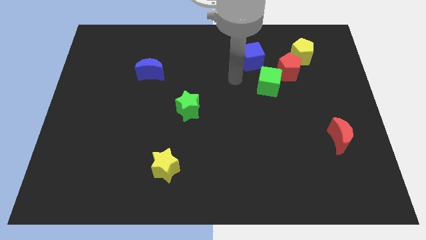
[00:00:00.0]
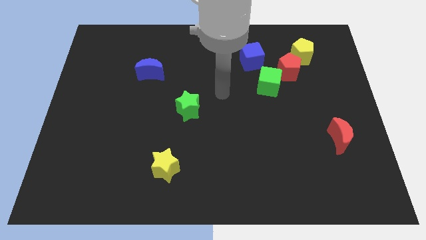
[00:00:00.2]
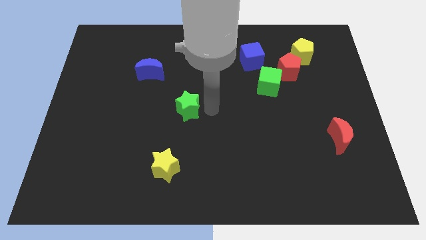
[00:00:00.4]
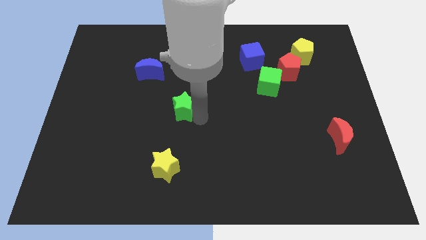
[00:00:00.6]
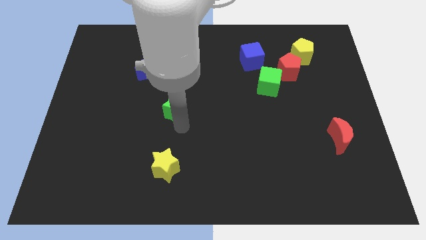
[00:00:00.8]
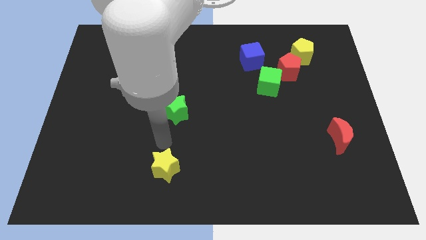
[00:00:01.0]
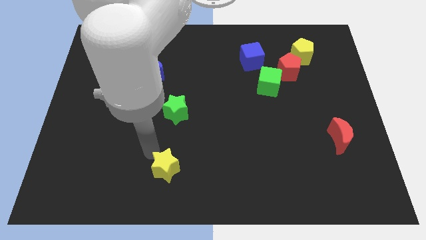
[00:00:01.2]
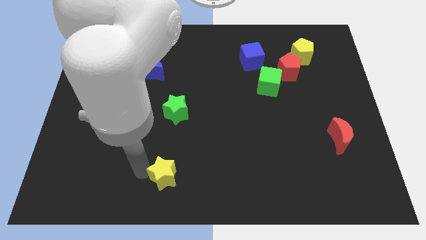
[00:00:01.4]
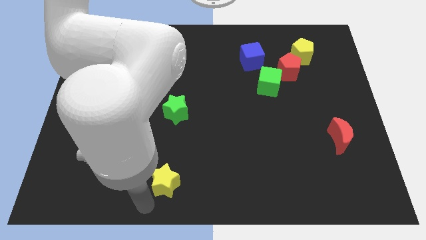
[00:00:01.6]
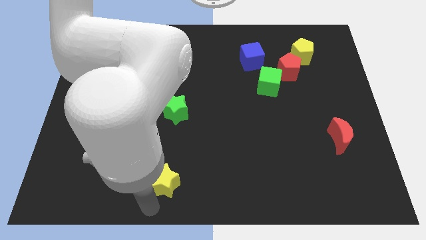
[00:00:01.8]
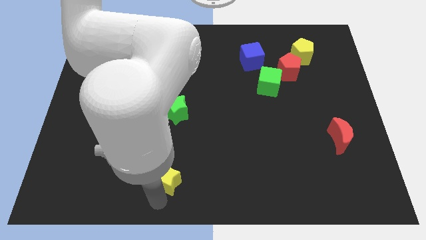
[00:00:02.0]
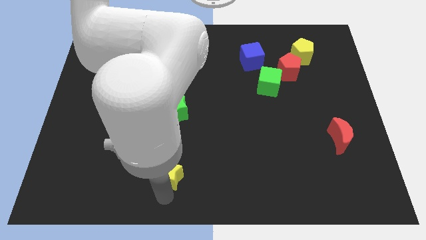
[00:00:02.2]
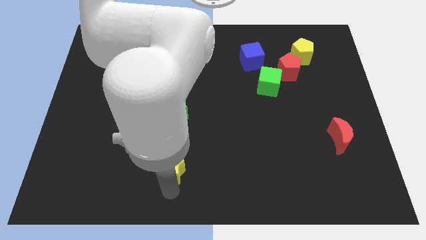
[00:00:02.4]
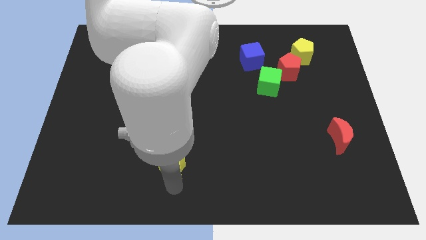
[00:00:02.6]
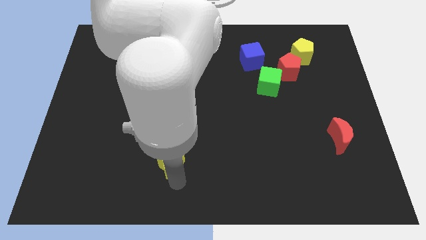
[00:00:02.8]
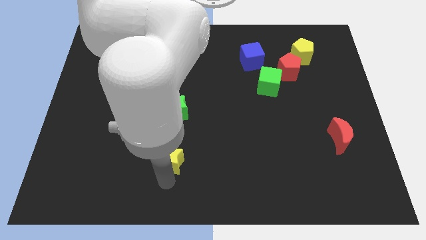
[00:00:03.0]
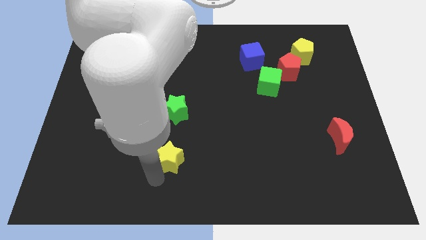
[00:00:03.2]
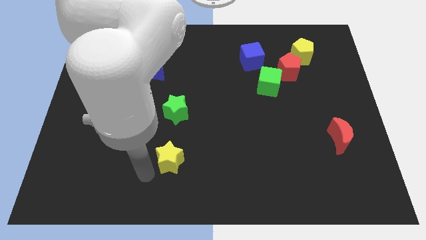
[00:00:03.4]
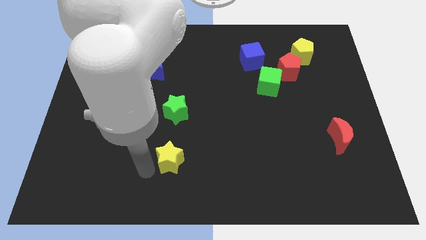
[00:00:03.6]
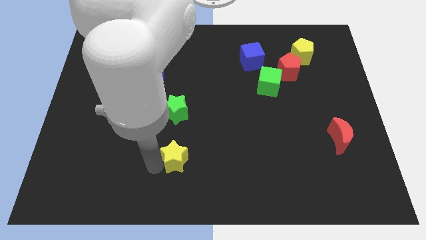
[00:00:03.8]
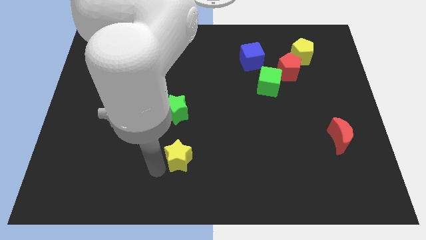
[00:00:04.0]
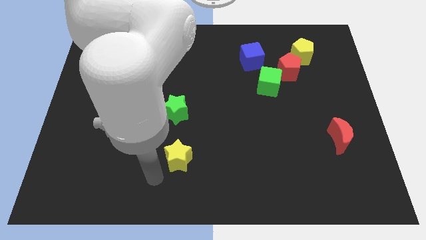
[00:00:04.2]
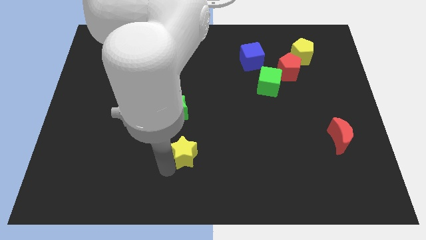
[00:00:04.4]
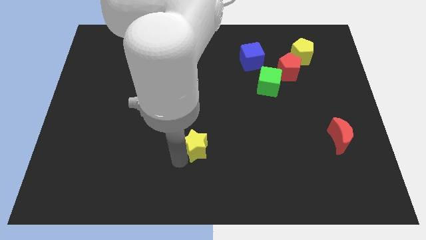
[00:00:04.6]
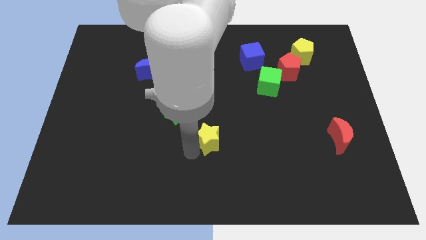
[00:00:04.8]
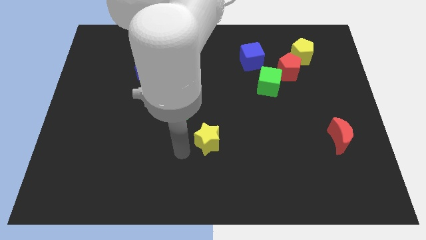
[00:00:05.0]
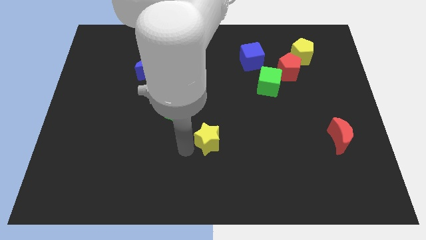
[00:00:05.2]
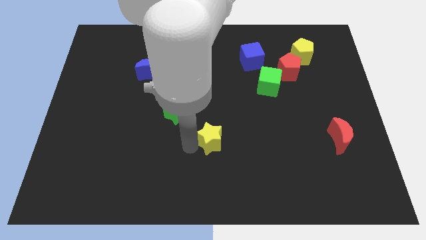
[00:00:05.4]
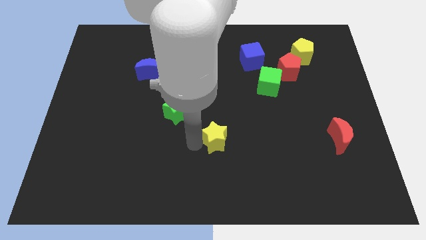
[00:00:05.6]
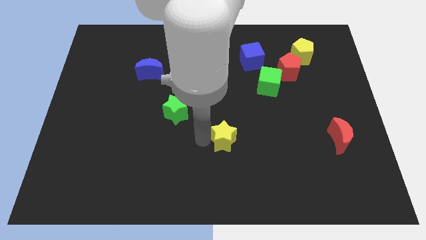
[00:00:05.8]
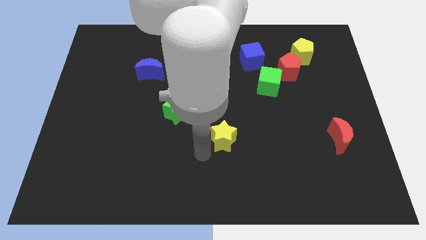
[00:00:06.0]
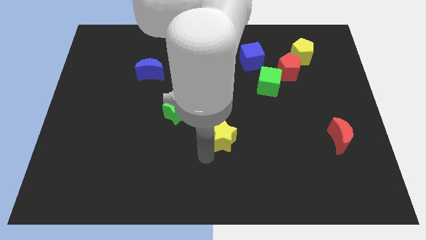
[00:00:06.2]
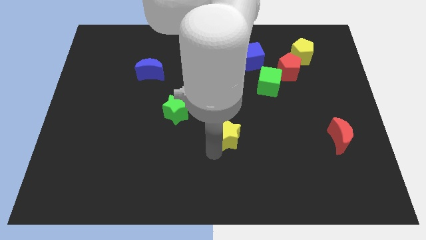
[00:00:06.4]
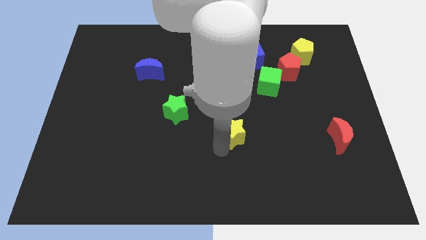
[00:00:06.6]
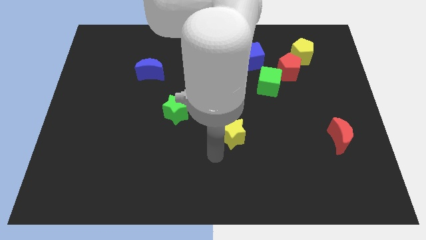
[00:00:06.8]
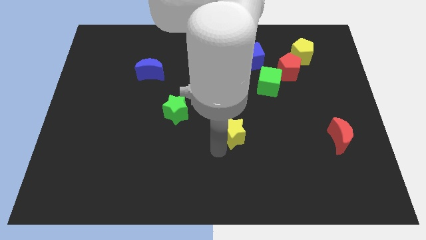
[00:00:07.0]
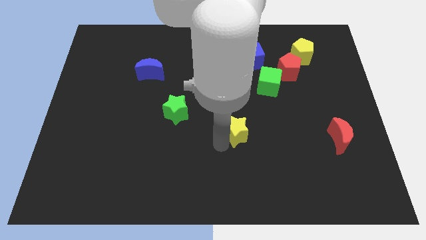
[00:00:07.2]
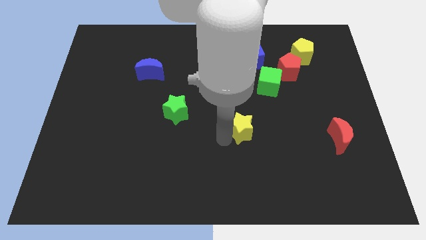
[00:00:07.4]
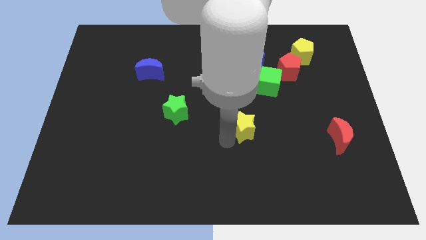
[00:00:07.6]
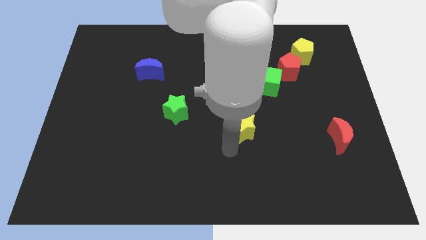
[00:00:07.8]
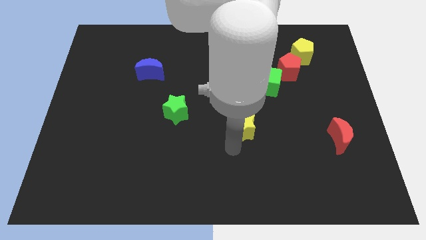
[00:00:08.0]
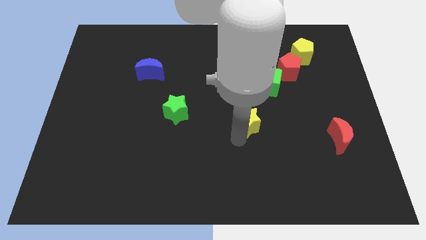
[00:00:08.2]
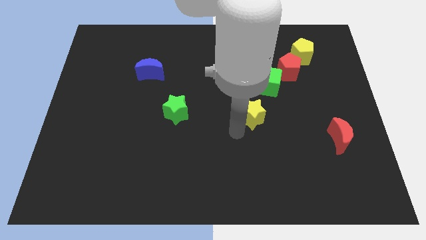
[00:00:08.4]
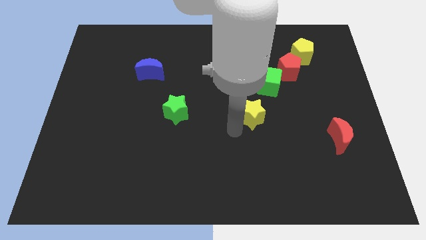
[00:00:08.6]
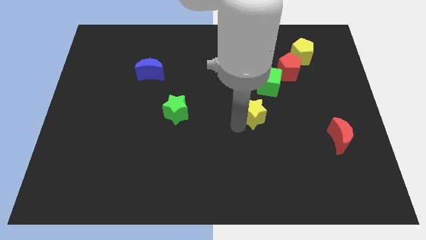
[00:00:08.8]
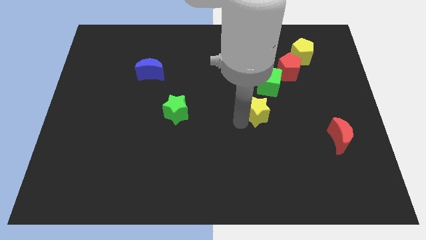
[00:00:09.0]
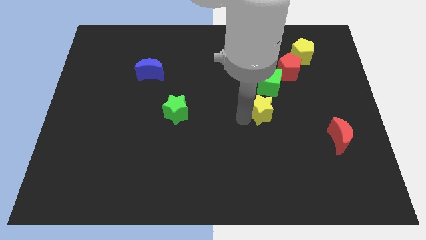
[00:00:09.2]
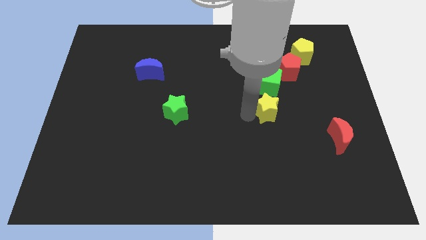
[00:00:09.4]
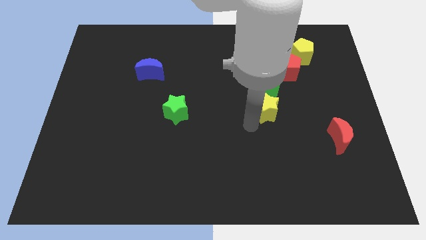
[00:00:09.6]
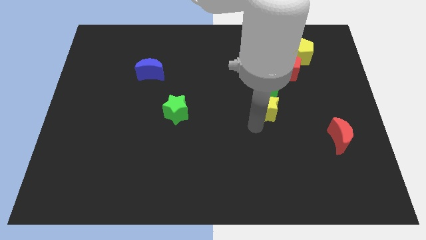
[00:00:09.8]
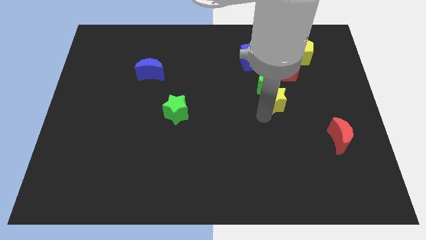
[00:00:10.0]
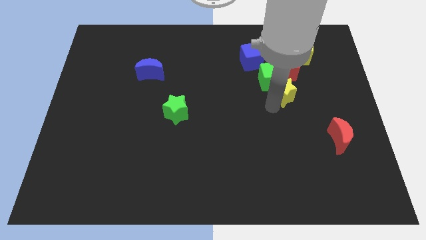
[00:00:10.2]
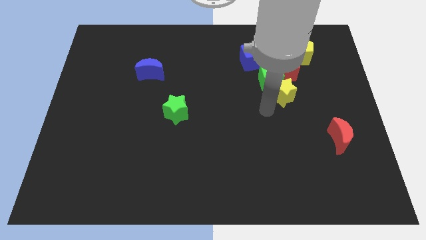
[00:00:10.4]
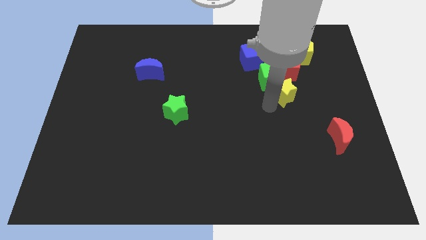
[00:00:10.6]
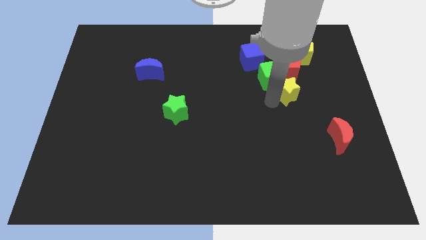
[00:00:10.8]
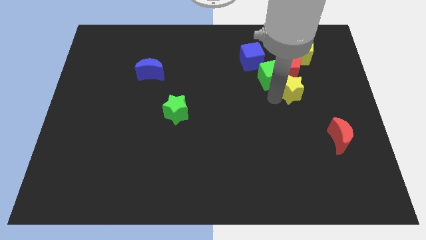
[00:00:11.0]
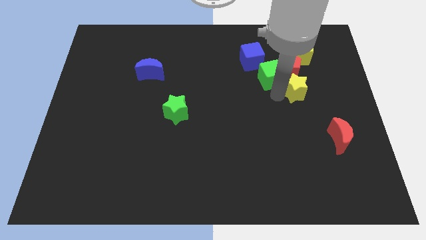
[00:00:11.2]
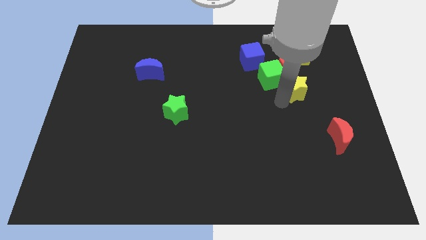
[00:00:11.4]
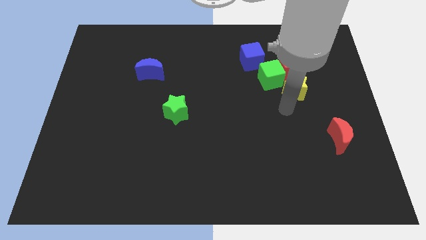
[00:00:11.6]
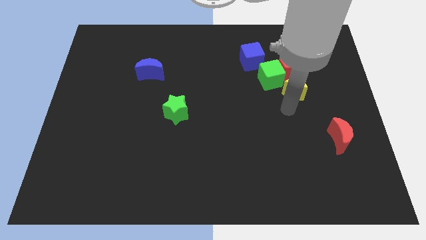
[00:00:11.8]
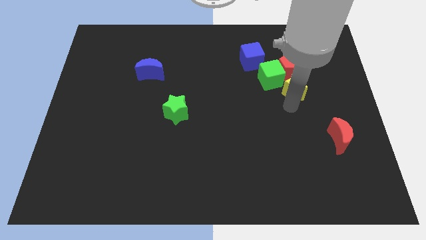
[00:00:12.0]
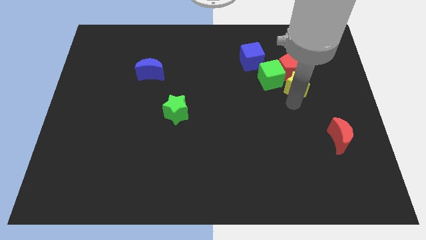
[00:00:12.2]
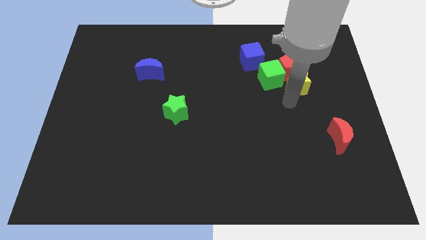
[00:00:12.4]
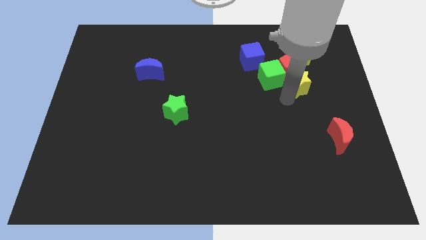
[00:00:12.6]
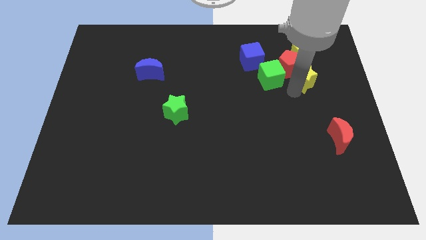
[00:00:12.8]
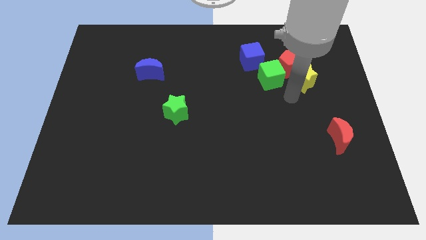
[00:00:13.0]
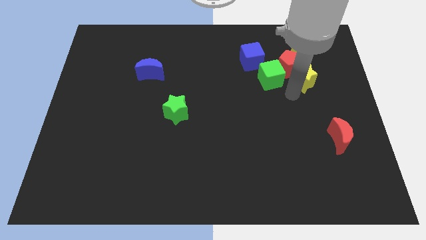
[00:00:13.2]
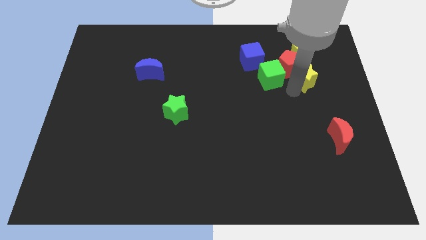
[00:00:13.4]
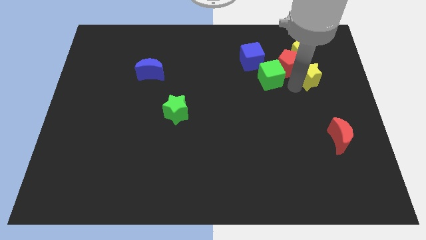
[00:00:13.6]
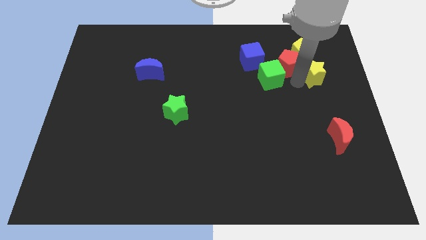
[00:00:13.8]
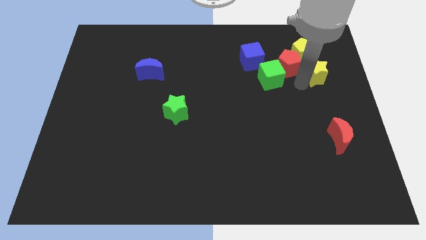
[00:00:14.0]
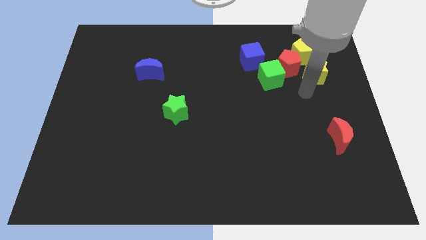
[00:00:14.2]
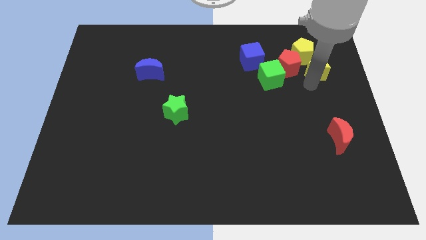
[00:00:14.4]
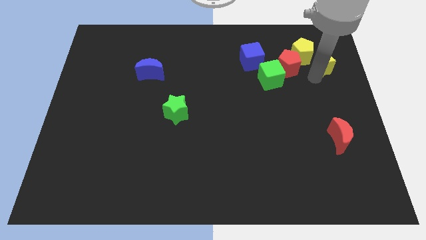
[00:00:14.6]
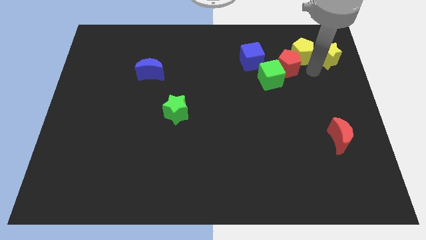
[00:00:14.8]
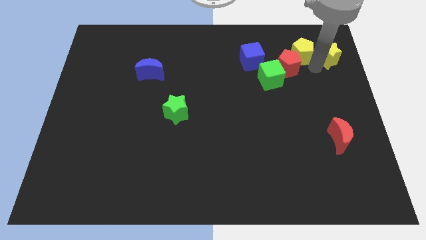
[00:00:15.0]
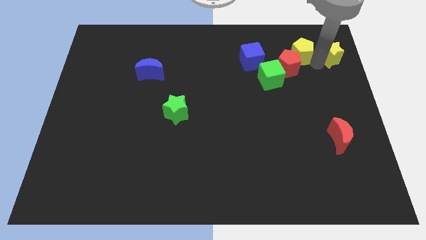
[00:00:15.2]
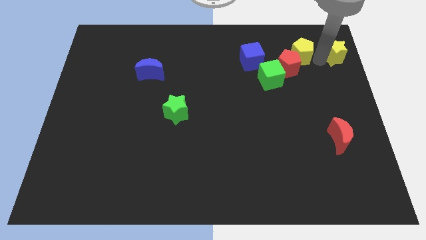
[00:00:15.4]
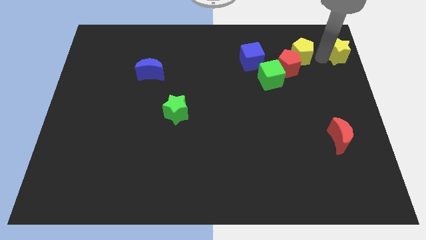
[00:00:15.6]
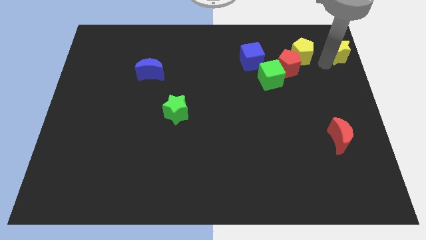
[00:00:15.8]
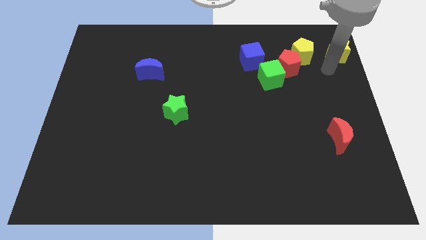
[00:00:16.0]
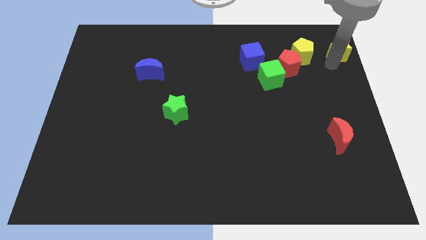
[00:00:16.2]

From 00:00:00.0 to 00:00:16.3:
slide the yellow star to the upper right corner
